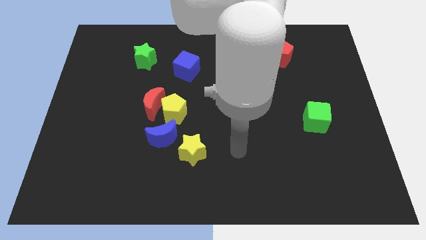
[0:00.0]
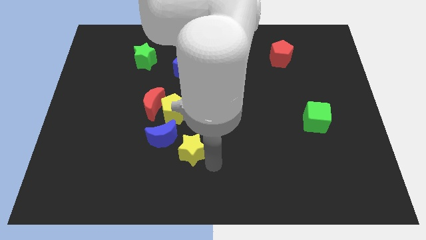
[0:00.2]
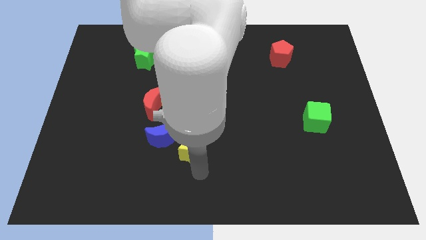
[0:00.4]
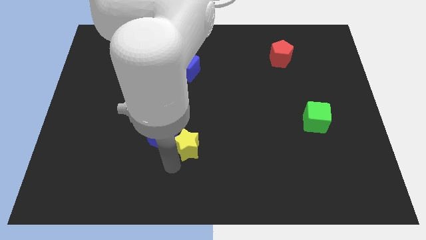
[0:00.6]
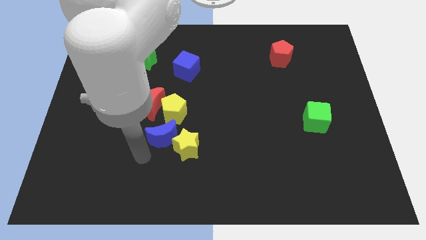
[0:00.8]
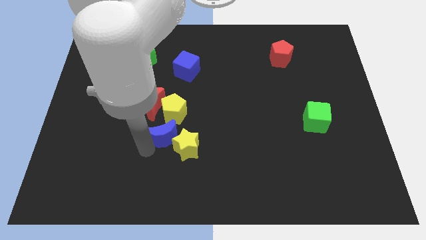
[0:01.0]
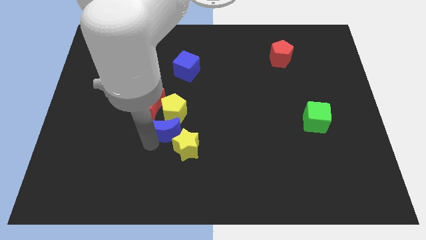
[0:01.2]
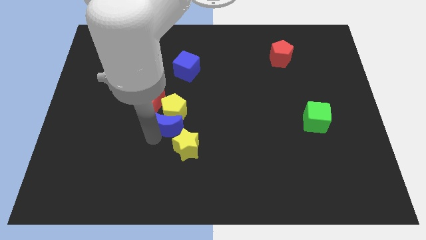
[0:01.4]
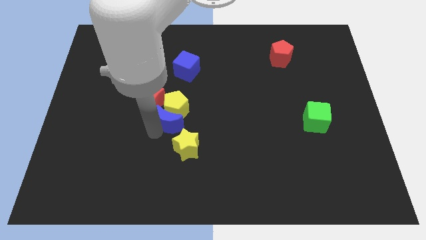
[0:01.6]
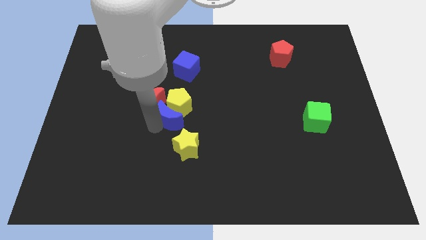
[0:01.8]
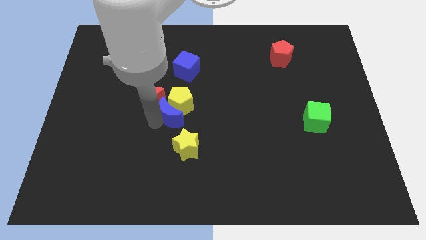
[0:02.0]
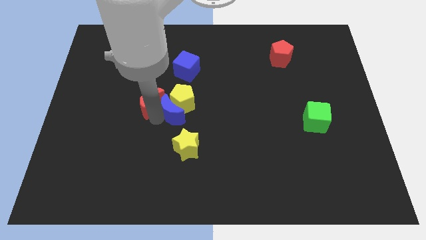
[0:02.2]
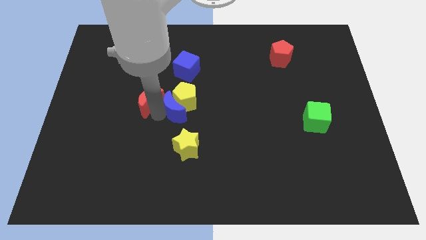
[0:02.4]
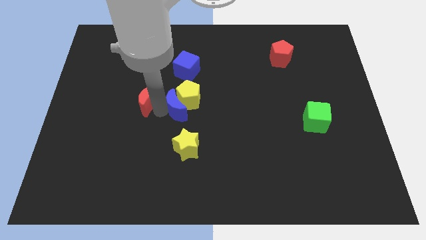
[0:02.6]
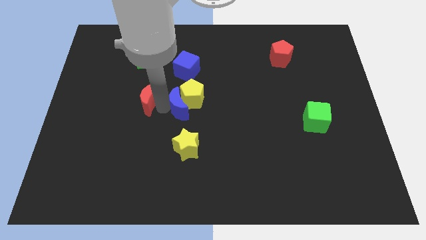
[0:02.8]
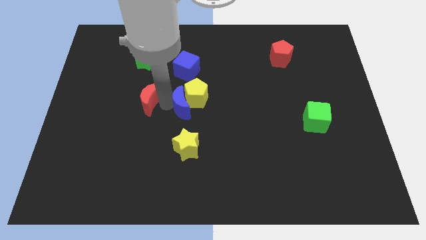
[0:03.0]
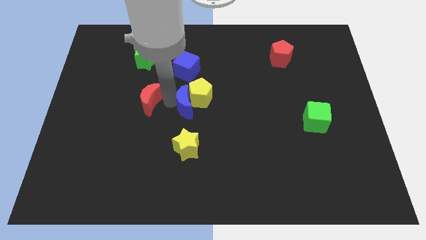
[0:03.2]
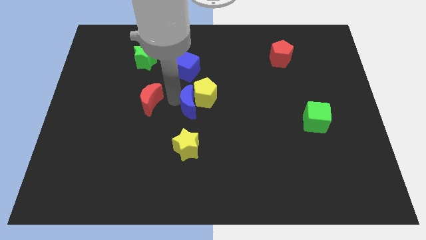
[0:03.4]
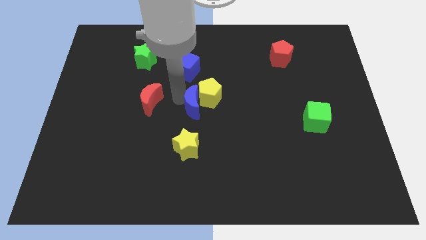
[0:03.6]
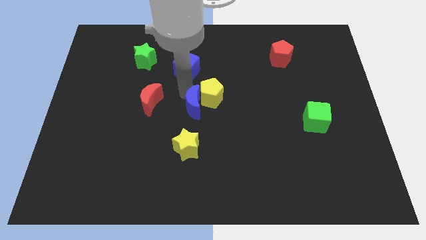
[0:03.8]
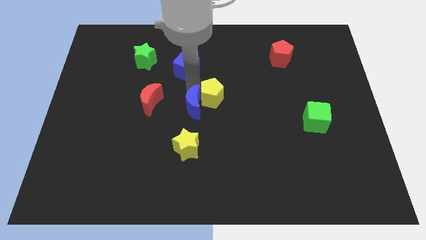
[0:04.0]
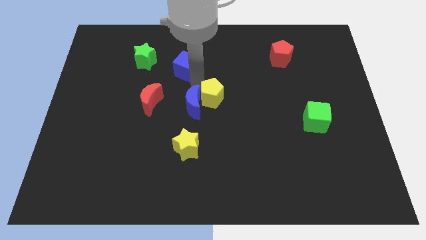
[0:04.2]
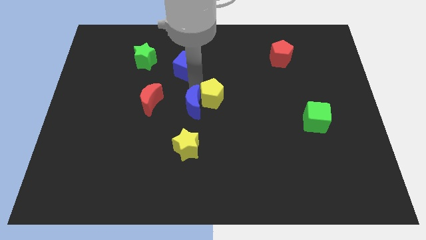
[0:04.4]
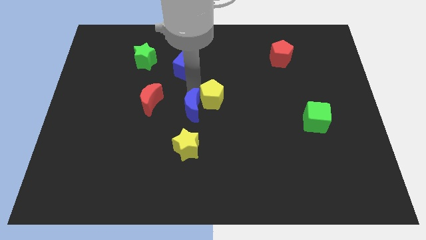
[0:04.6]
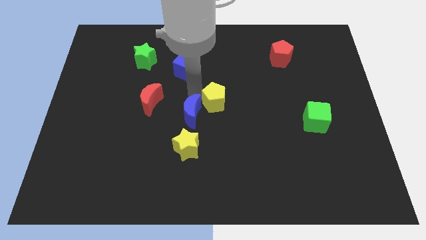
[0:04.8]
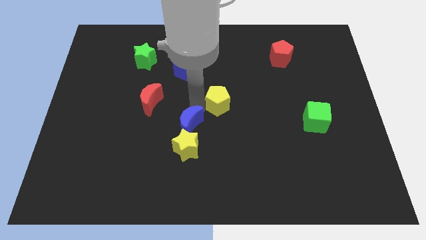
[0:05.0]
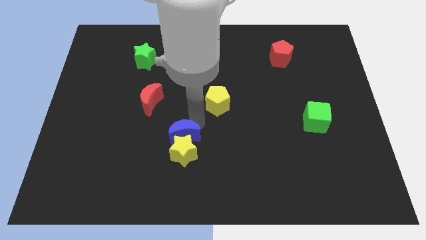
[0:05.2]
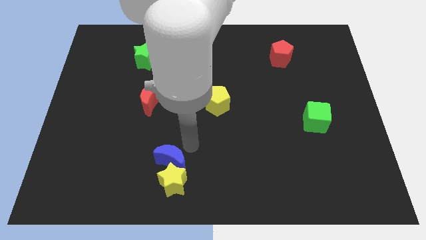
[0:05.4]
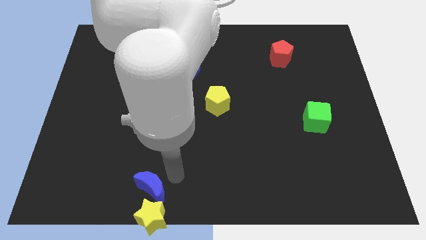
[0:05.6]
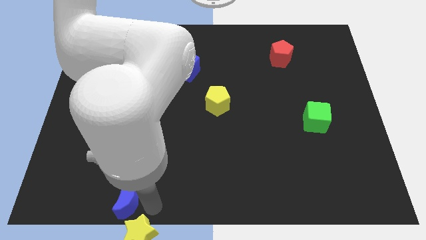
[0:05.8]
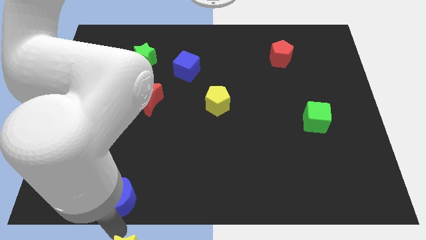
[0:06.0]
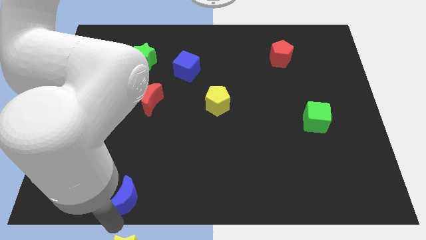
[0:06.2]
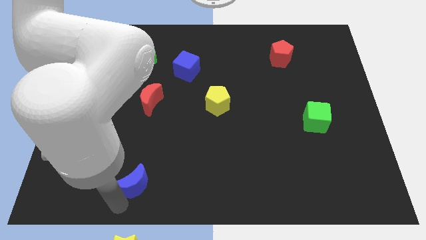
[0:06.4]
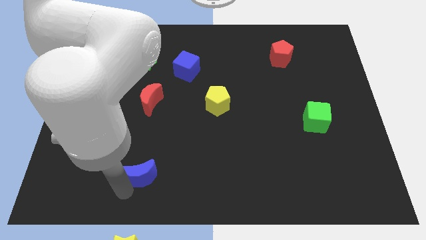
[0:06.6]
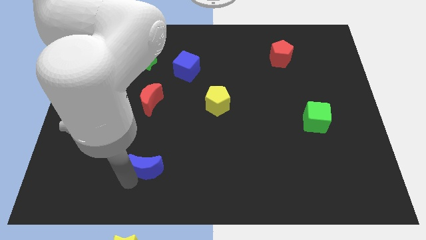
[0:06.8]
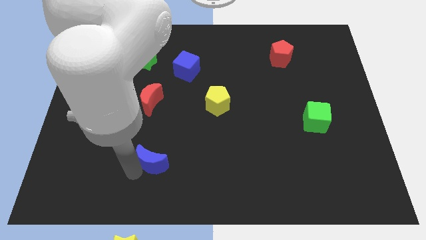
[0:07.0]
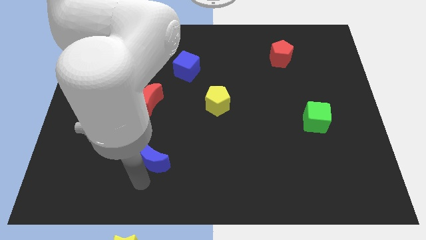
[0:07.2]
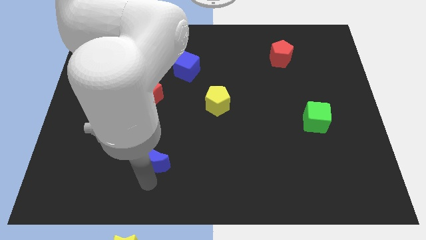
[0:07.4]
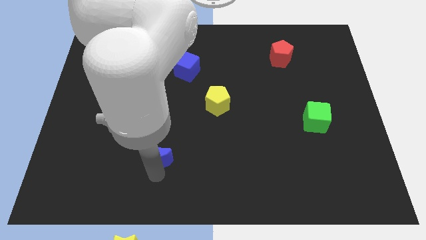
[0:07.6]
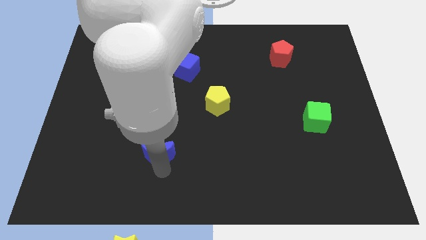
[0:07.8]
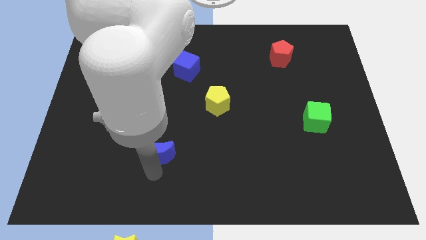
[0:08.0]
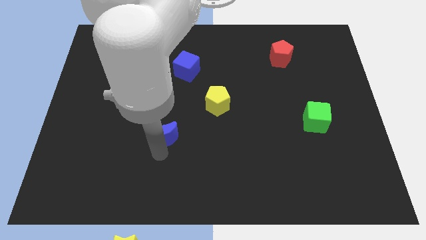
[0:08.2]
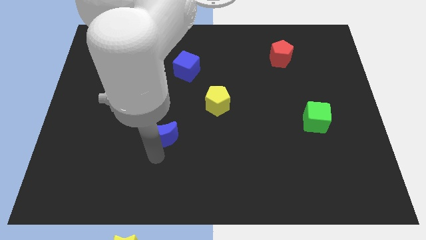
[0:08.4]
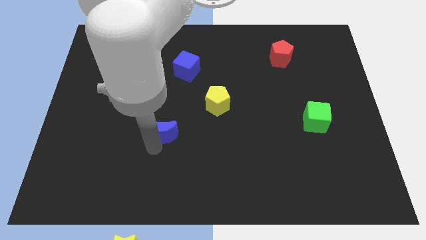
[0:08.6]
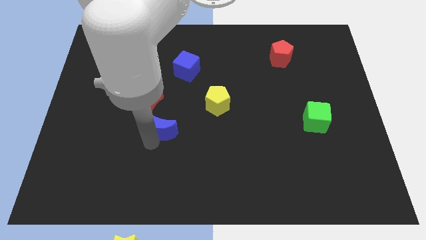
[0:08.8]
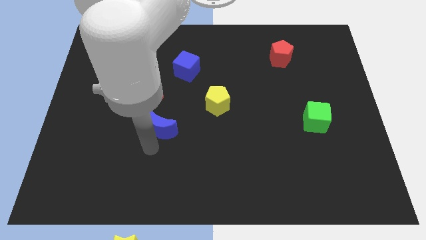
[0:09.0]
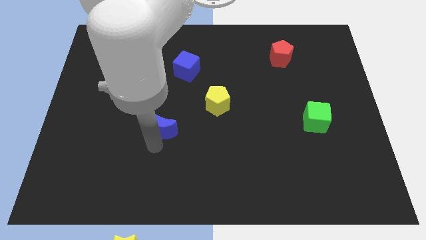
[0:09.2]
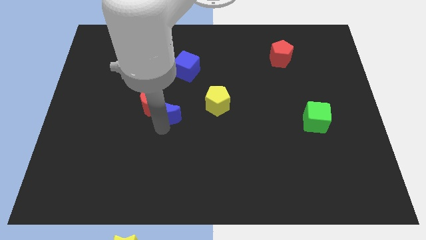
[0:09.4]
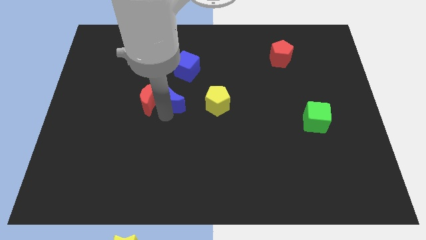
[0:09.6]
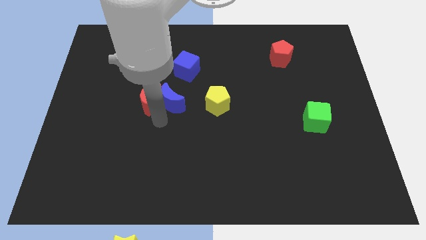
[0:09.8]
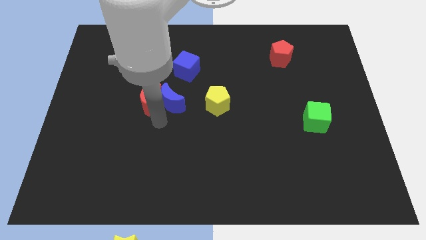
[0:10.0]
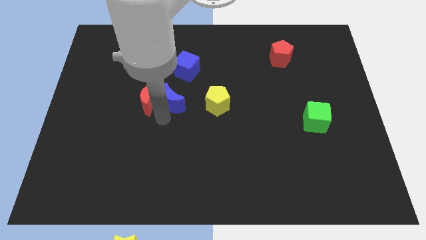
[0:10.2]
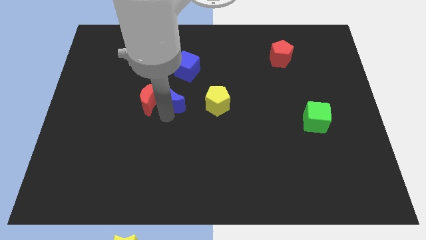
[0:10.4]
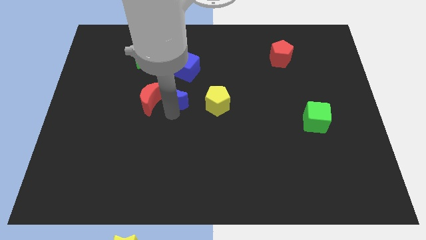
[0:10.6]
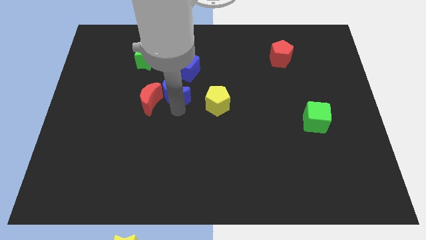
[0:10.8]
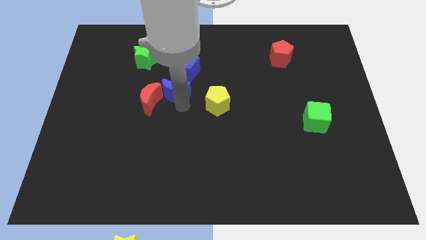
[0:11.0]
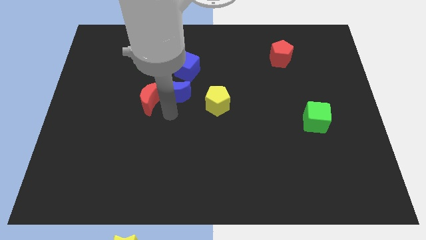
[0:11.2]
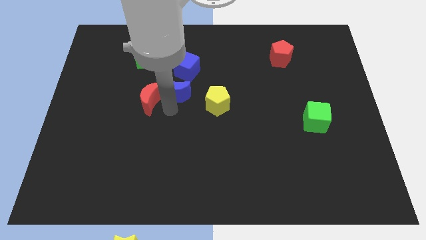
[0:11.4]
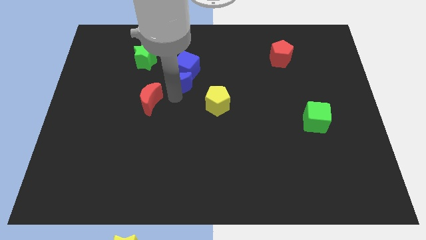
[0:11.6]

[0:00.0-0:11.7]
move the blue moon next to the blue cube
